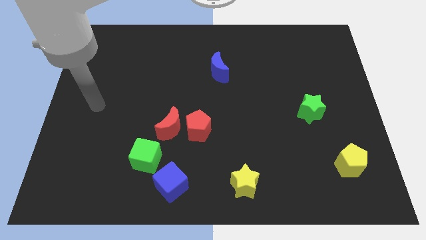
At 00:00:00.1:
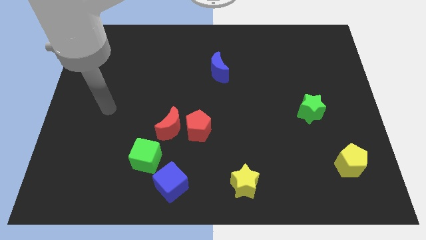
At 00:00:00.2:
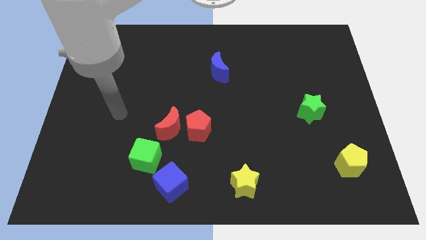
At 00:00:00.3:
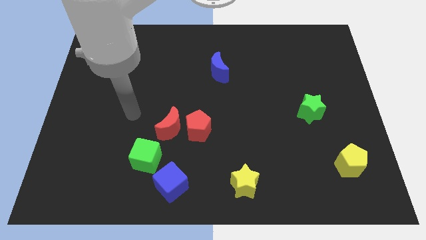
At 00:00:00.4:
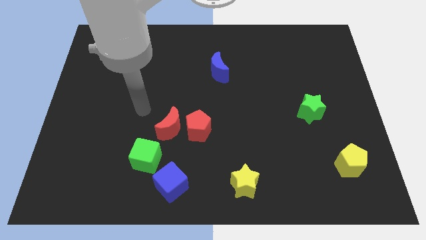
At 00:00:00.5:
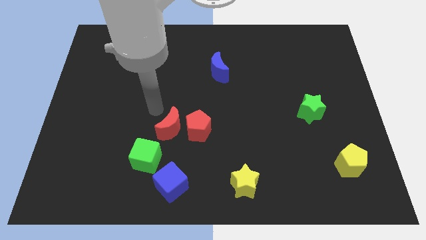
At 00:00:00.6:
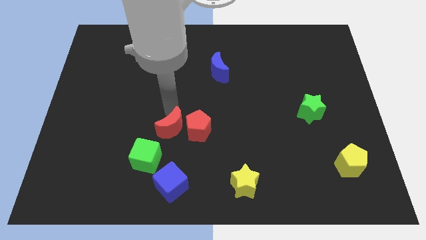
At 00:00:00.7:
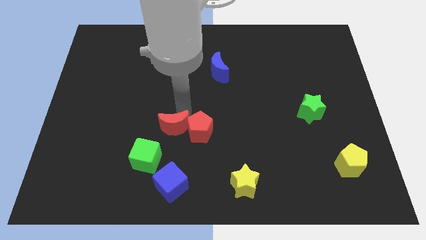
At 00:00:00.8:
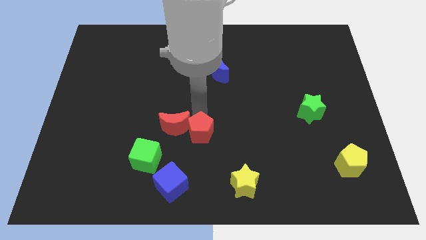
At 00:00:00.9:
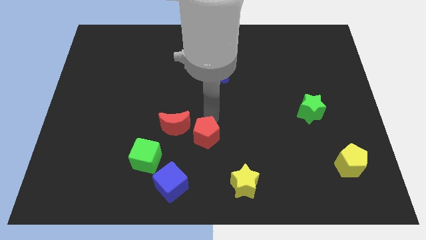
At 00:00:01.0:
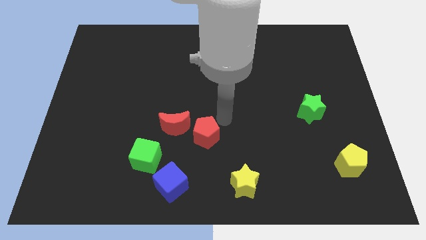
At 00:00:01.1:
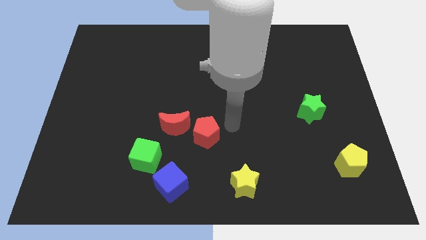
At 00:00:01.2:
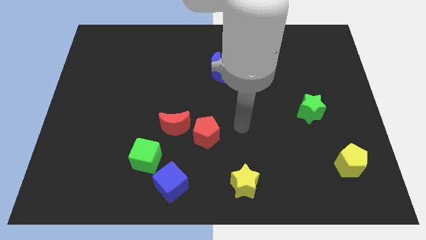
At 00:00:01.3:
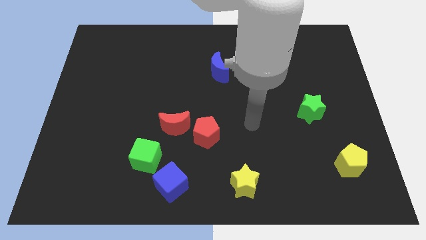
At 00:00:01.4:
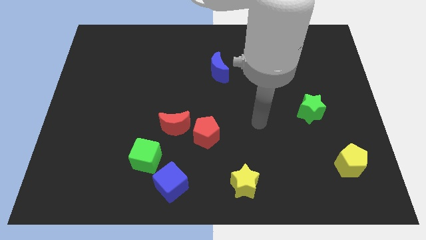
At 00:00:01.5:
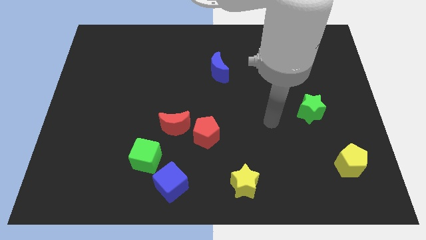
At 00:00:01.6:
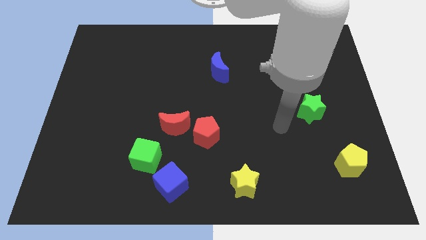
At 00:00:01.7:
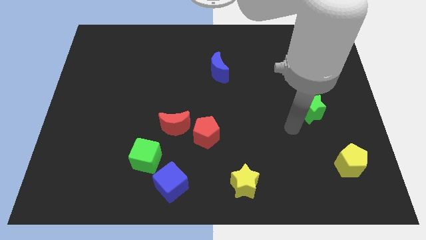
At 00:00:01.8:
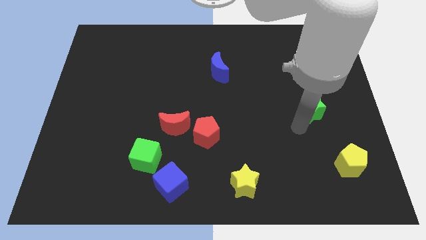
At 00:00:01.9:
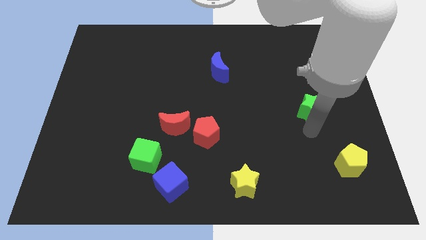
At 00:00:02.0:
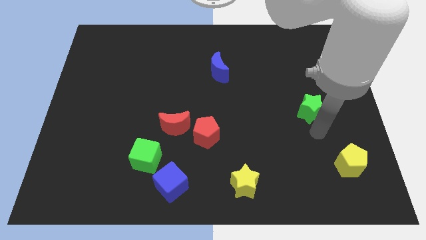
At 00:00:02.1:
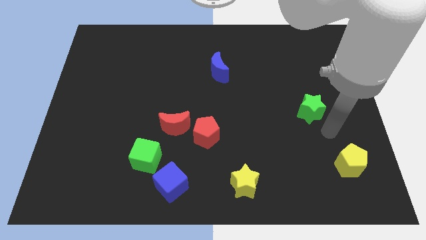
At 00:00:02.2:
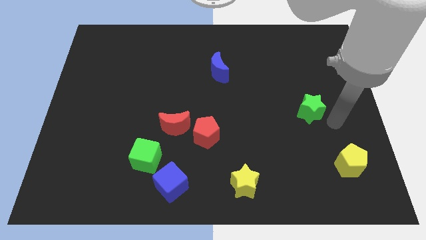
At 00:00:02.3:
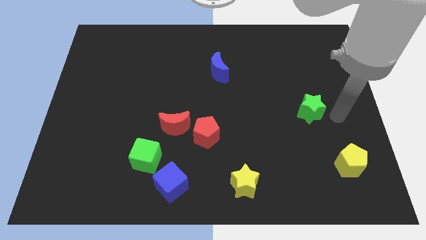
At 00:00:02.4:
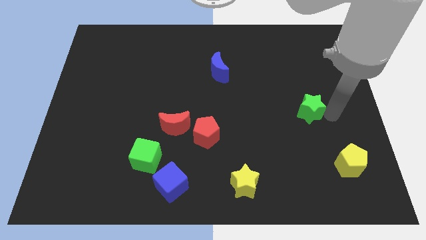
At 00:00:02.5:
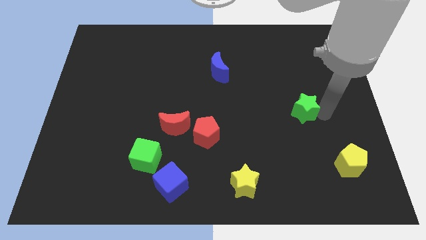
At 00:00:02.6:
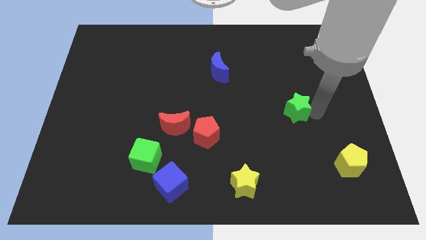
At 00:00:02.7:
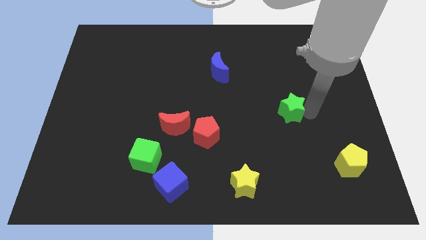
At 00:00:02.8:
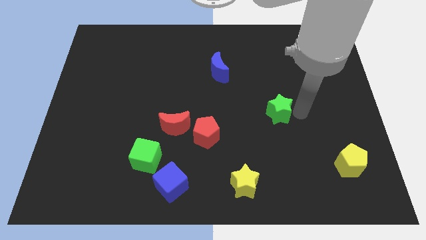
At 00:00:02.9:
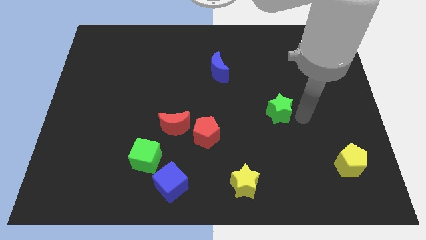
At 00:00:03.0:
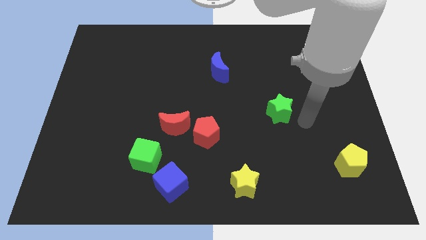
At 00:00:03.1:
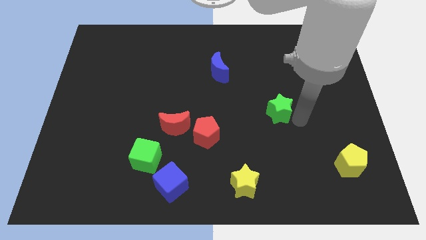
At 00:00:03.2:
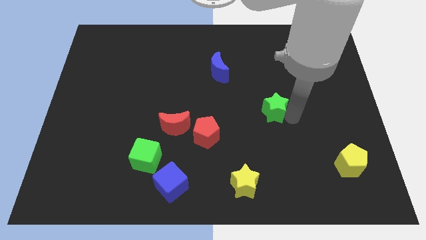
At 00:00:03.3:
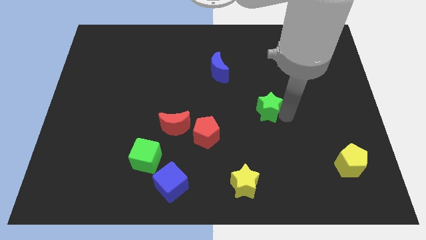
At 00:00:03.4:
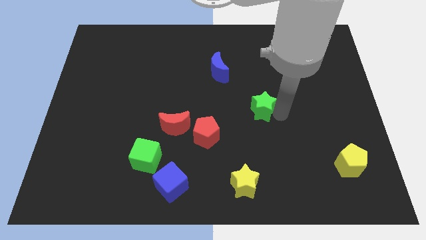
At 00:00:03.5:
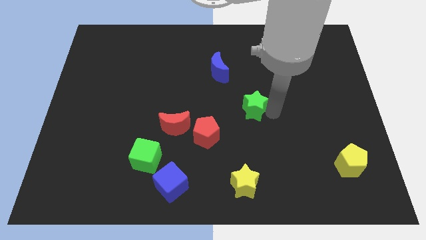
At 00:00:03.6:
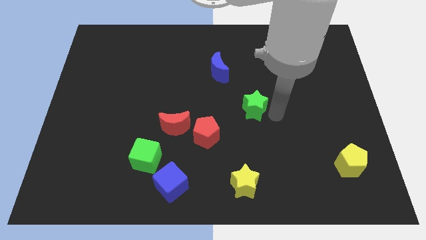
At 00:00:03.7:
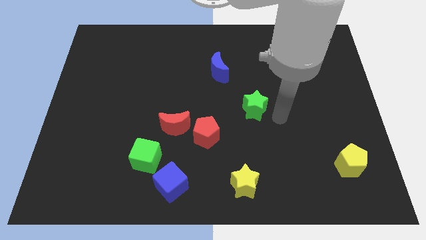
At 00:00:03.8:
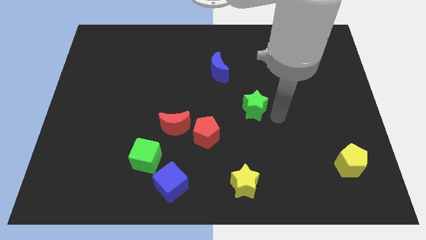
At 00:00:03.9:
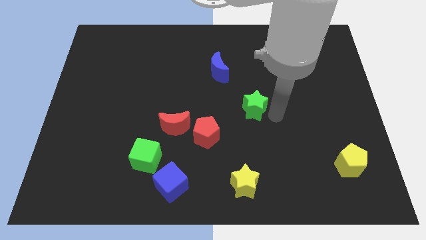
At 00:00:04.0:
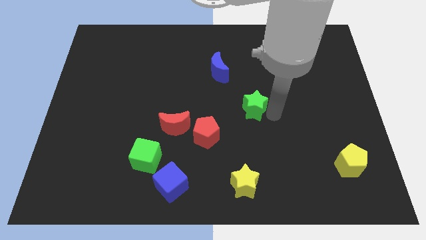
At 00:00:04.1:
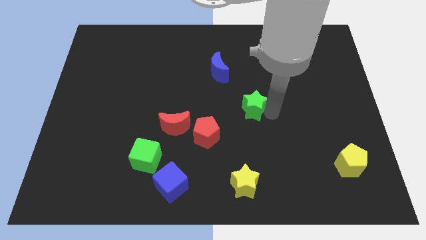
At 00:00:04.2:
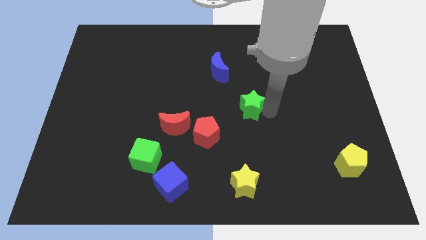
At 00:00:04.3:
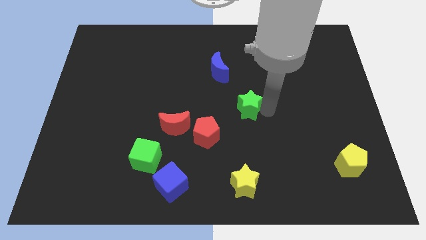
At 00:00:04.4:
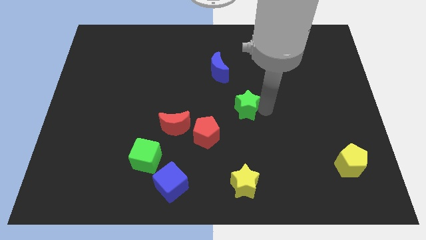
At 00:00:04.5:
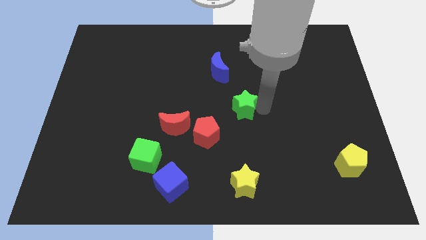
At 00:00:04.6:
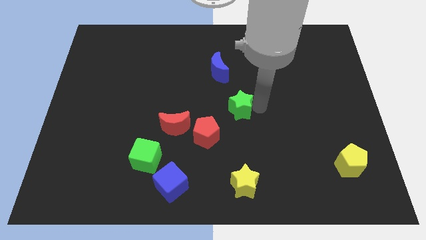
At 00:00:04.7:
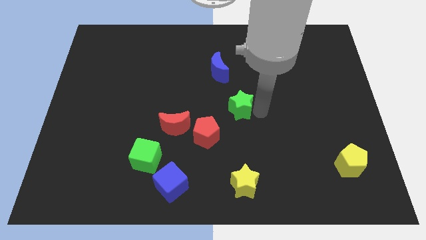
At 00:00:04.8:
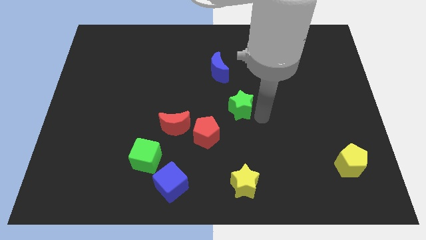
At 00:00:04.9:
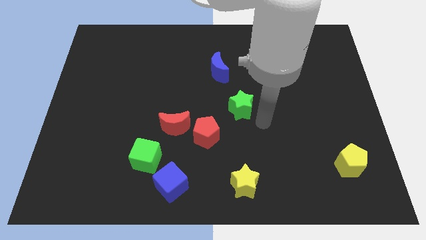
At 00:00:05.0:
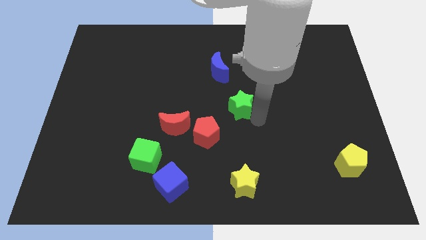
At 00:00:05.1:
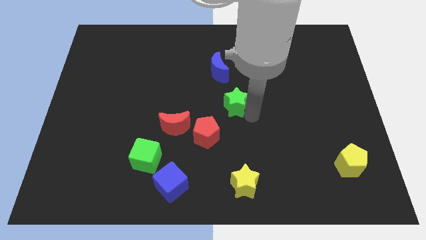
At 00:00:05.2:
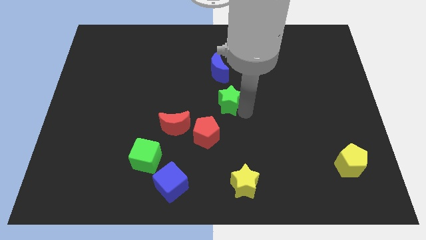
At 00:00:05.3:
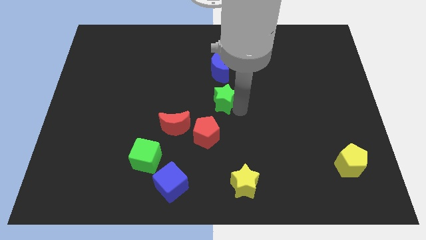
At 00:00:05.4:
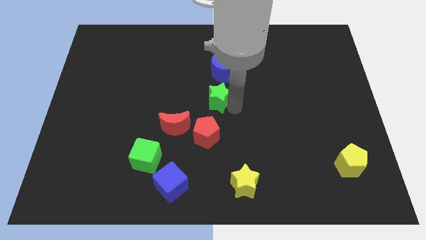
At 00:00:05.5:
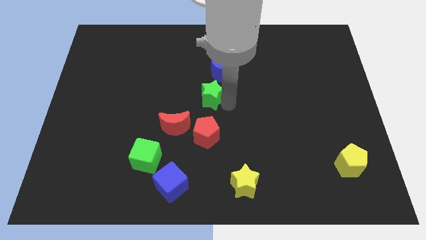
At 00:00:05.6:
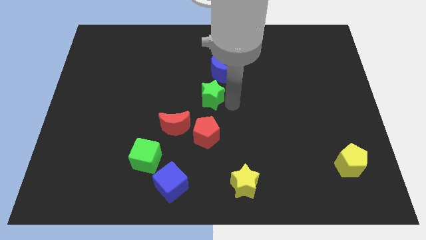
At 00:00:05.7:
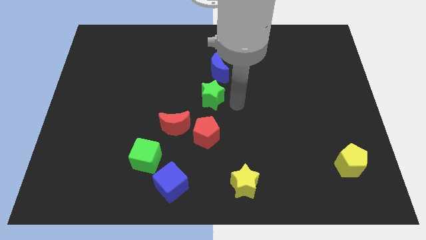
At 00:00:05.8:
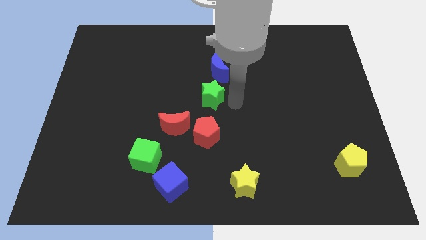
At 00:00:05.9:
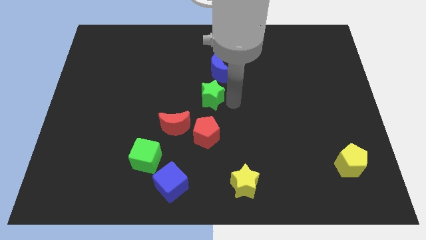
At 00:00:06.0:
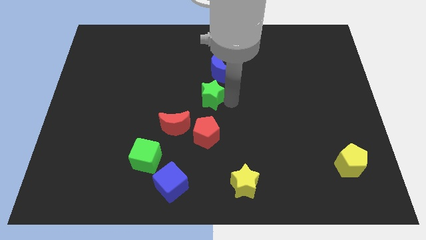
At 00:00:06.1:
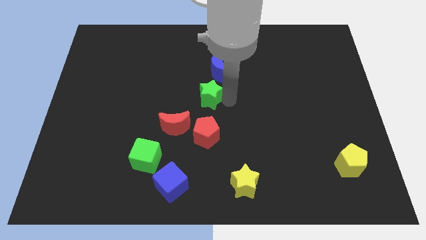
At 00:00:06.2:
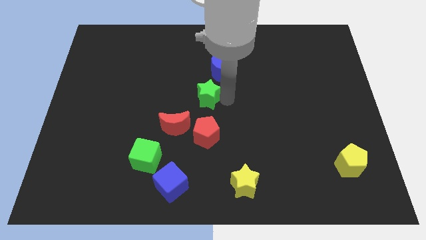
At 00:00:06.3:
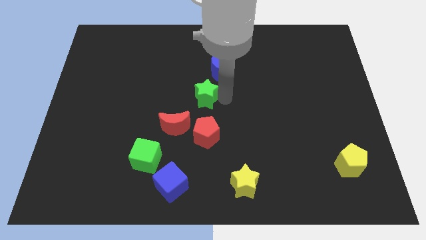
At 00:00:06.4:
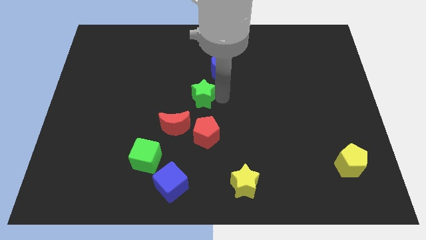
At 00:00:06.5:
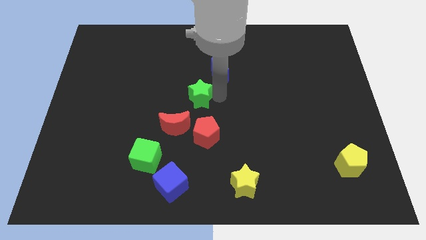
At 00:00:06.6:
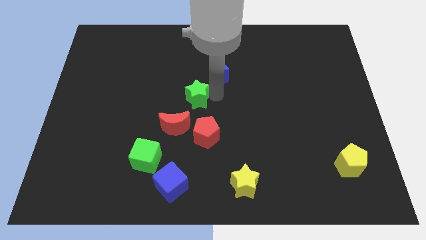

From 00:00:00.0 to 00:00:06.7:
slide the green star to the top side of the red moon

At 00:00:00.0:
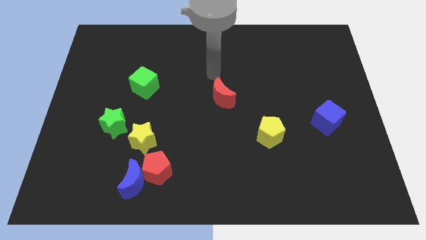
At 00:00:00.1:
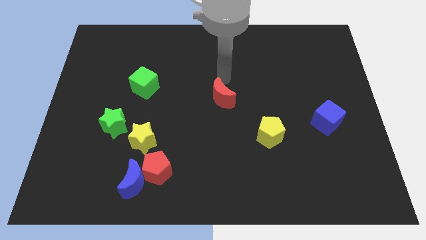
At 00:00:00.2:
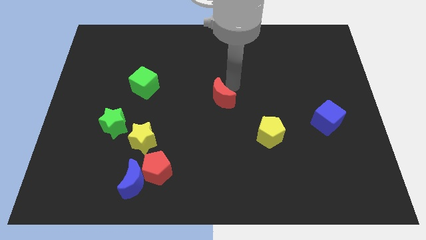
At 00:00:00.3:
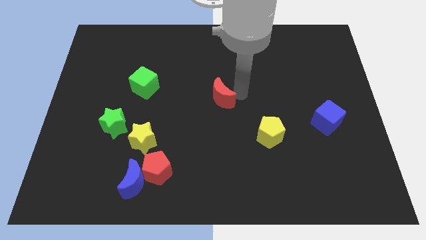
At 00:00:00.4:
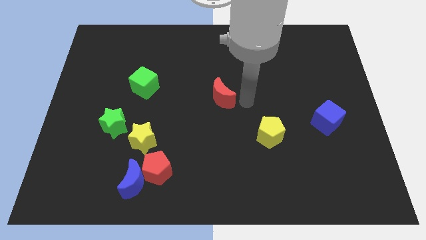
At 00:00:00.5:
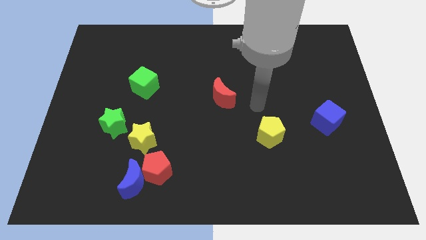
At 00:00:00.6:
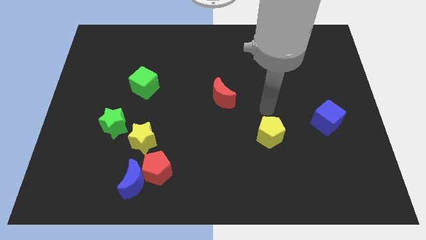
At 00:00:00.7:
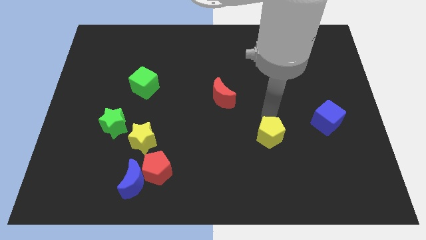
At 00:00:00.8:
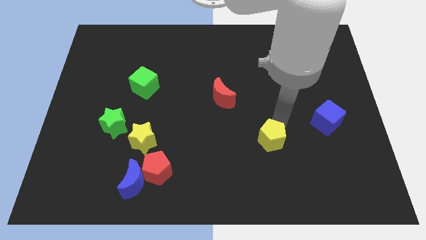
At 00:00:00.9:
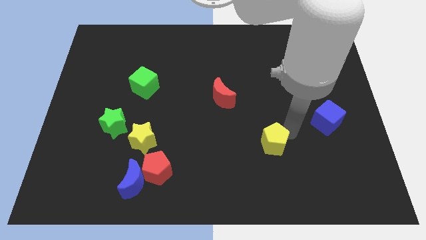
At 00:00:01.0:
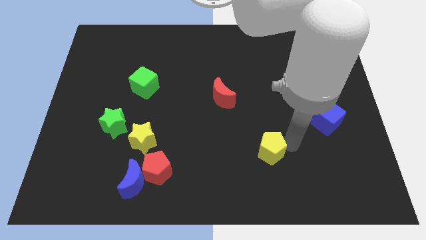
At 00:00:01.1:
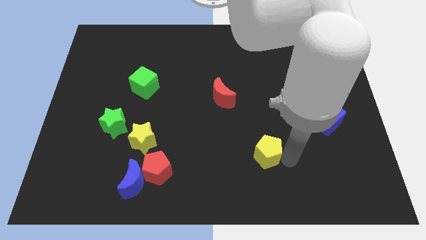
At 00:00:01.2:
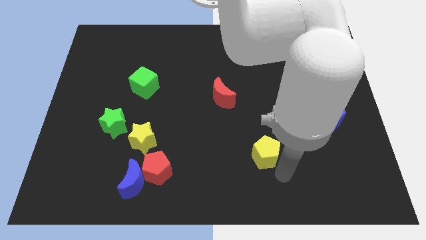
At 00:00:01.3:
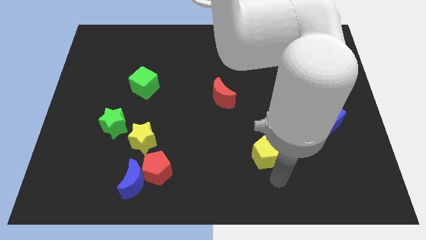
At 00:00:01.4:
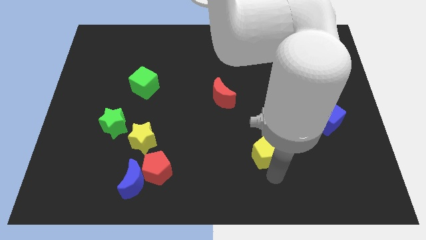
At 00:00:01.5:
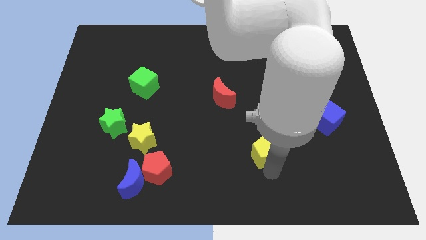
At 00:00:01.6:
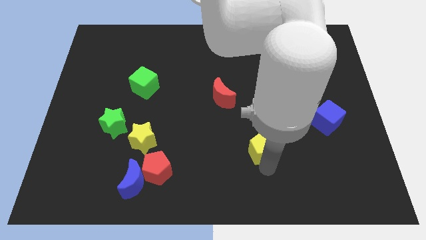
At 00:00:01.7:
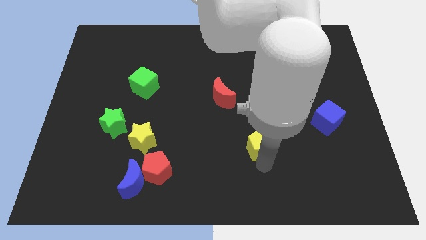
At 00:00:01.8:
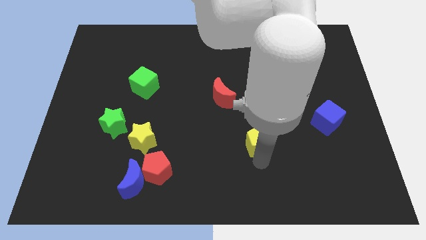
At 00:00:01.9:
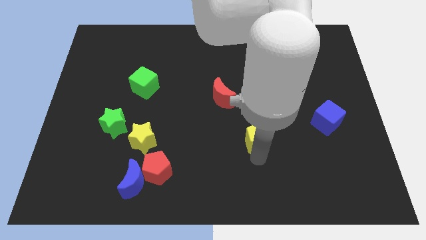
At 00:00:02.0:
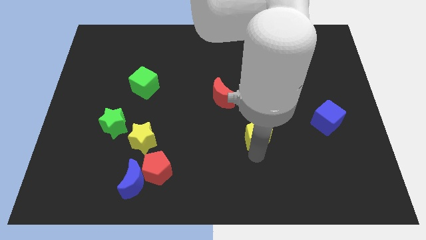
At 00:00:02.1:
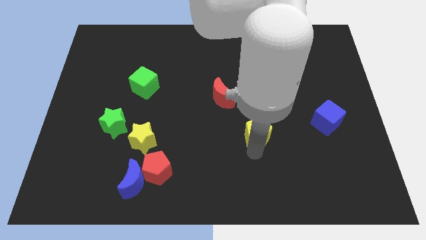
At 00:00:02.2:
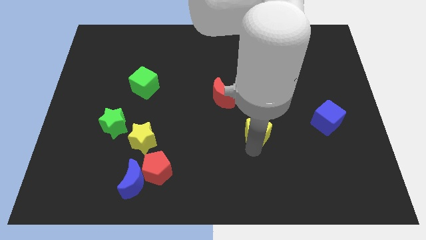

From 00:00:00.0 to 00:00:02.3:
push the yellow pentagon diagonally down and to the right of the red moon
